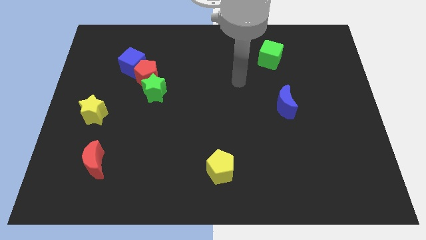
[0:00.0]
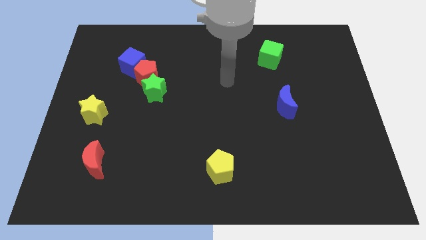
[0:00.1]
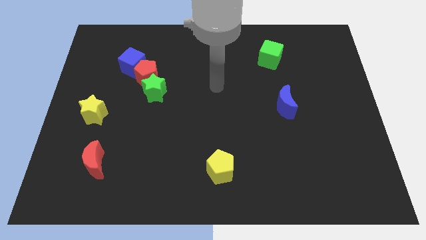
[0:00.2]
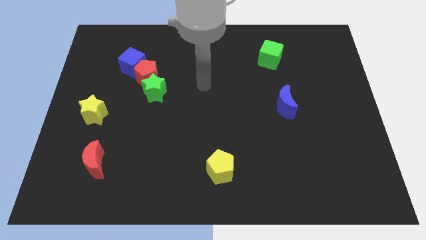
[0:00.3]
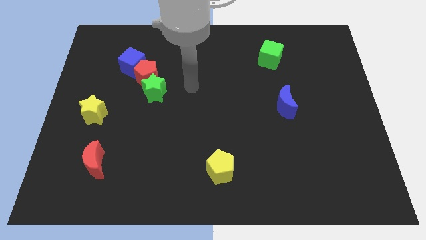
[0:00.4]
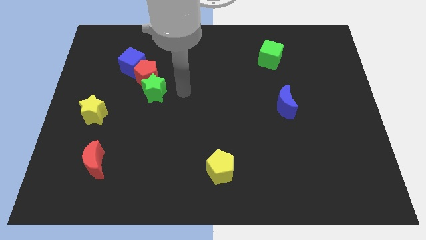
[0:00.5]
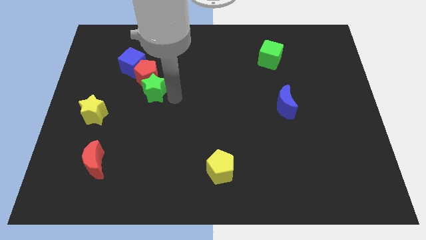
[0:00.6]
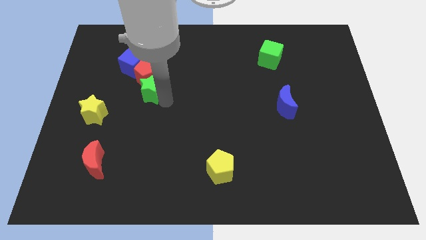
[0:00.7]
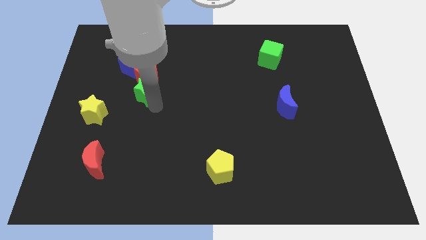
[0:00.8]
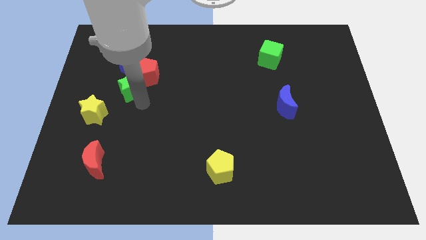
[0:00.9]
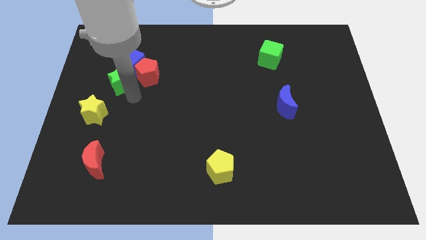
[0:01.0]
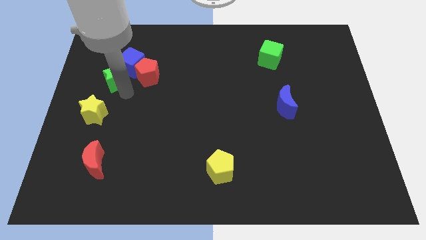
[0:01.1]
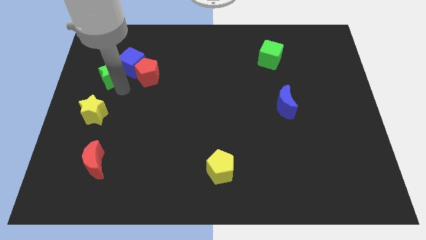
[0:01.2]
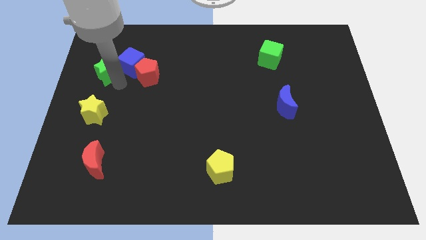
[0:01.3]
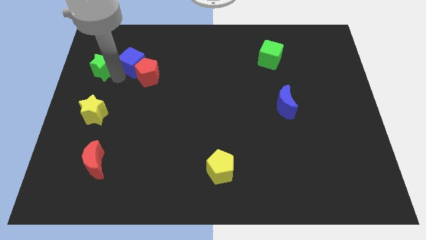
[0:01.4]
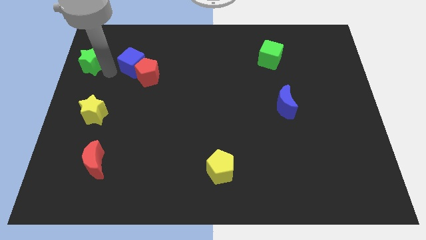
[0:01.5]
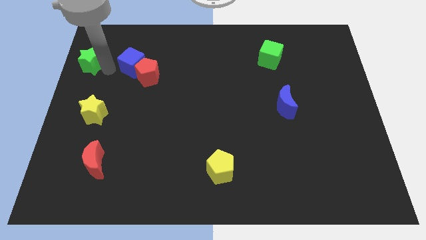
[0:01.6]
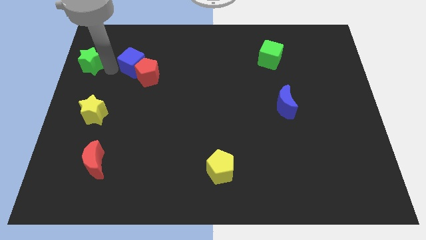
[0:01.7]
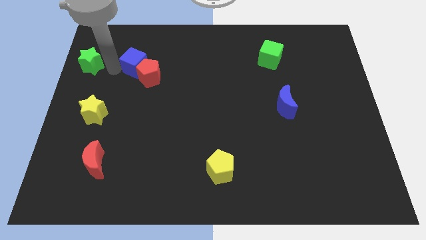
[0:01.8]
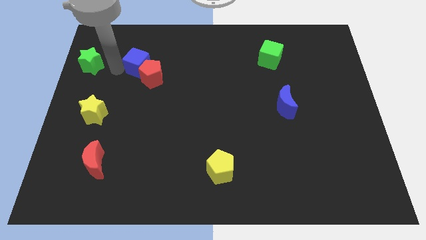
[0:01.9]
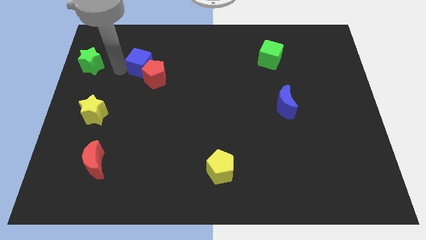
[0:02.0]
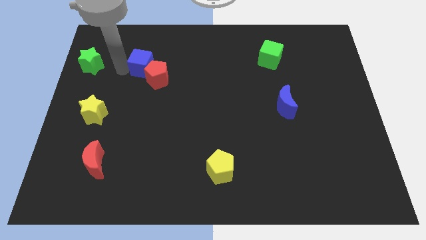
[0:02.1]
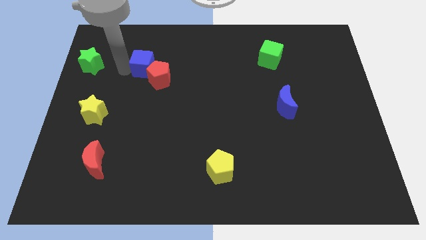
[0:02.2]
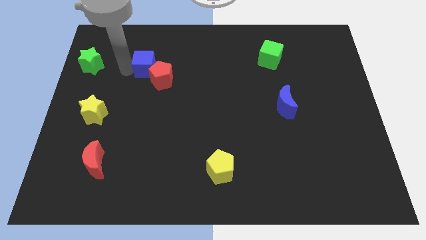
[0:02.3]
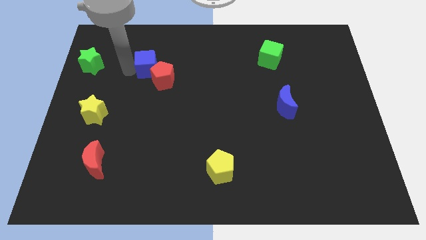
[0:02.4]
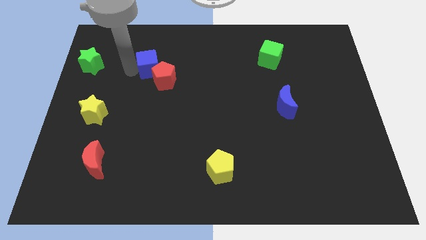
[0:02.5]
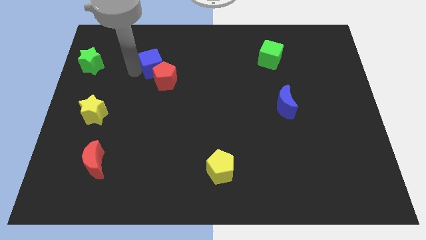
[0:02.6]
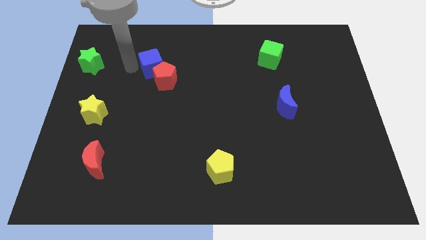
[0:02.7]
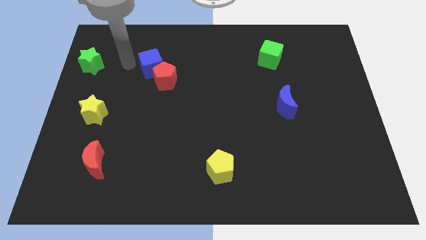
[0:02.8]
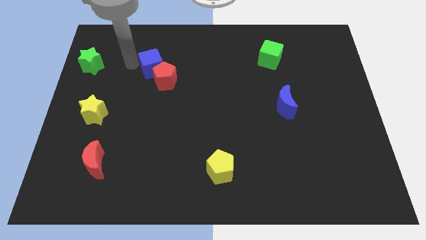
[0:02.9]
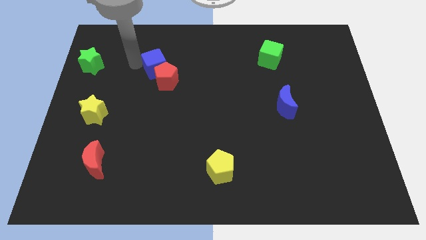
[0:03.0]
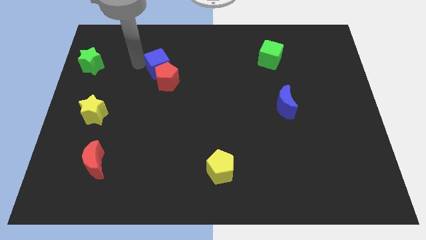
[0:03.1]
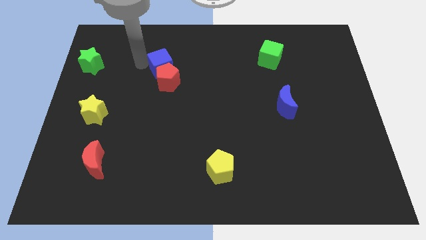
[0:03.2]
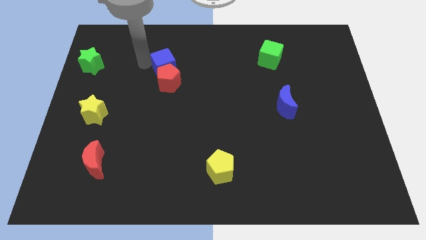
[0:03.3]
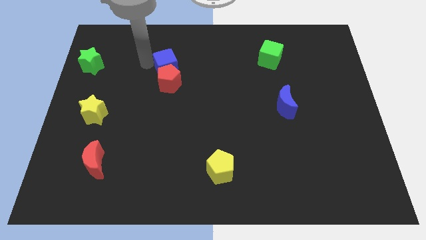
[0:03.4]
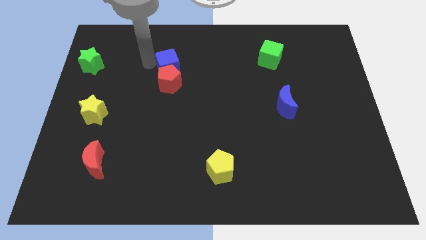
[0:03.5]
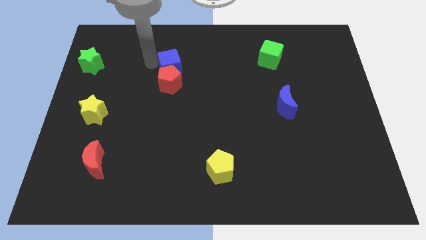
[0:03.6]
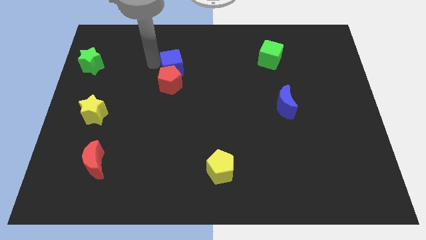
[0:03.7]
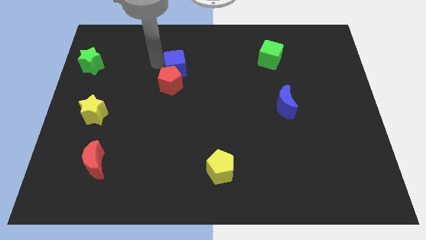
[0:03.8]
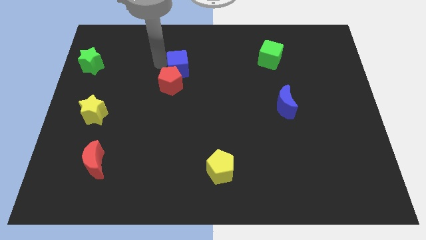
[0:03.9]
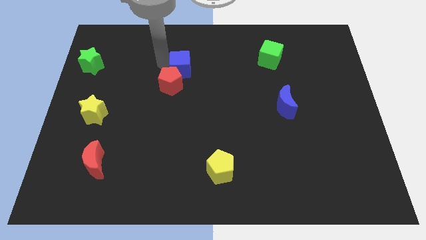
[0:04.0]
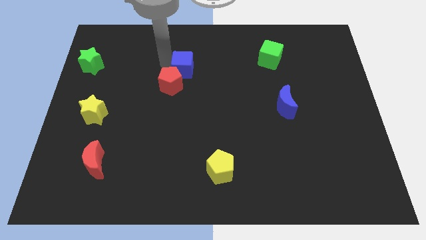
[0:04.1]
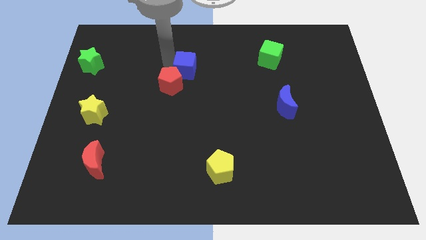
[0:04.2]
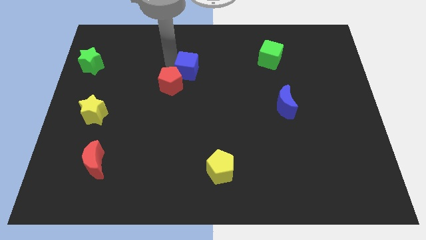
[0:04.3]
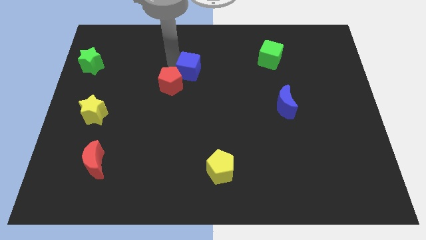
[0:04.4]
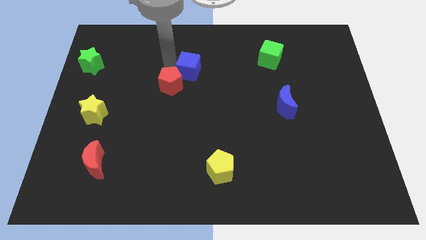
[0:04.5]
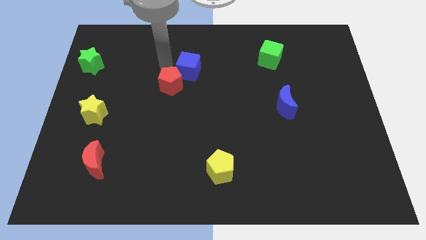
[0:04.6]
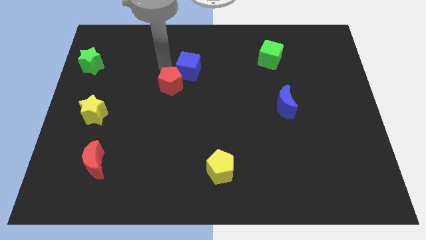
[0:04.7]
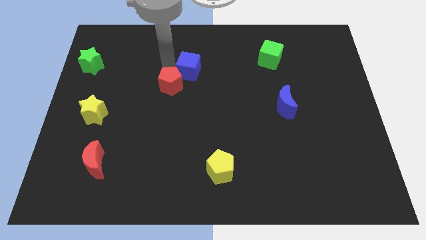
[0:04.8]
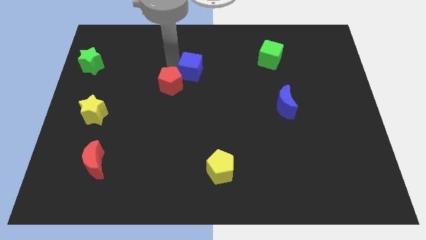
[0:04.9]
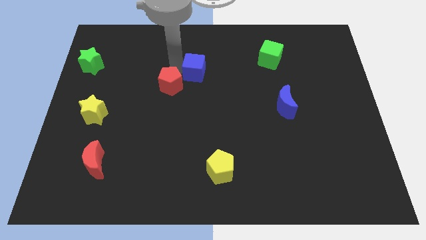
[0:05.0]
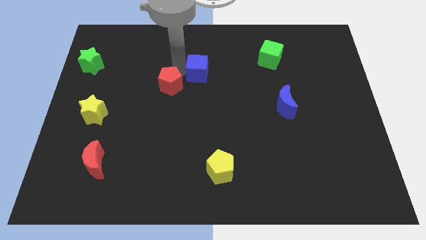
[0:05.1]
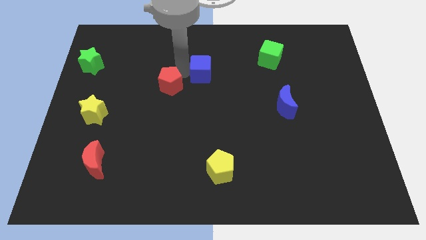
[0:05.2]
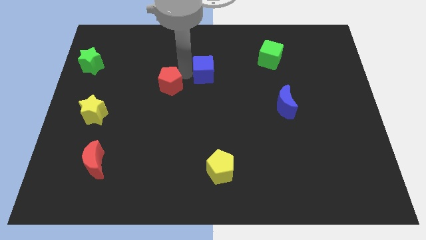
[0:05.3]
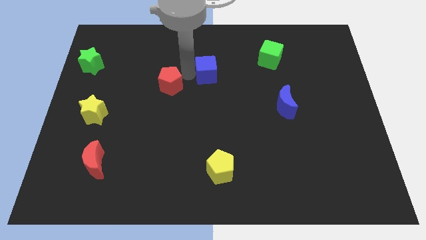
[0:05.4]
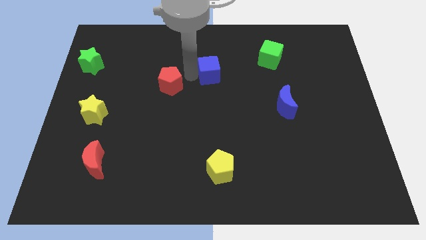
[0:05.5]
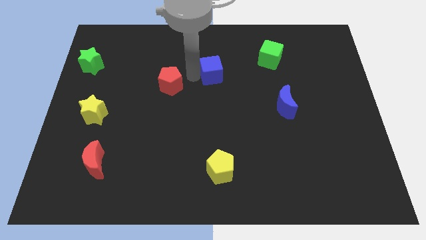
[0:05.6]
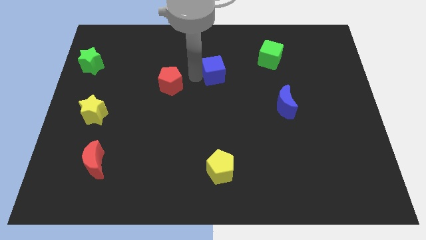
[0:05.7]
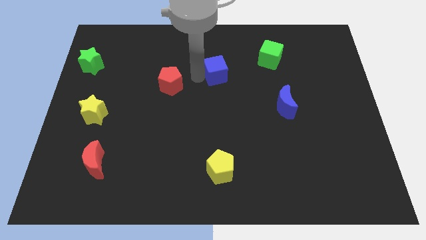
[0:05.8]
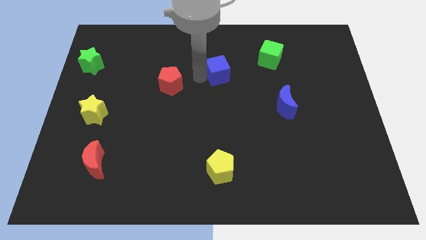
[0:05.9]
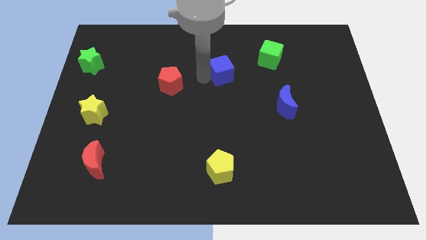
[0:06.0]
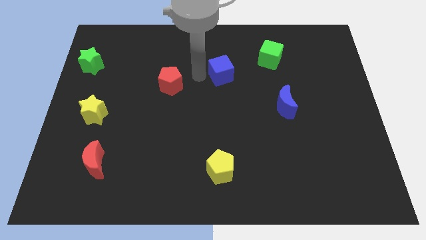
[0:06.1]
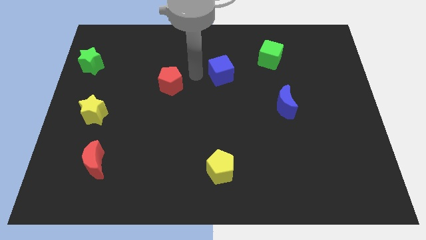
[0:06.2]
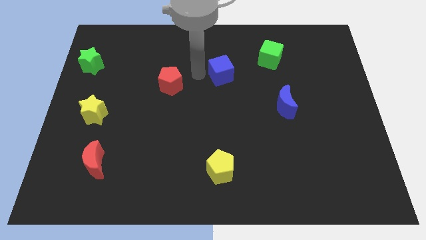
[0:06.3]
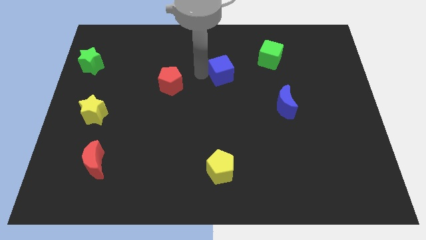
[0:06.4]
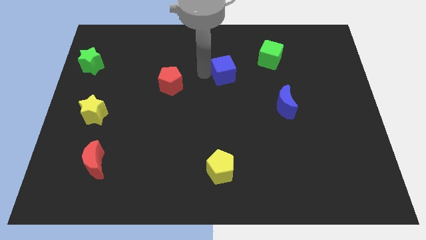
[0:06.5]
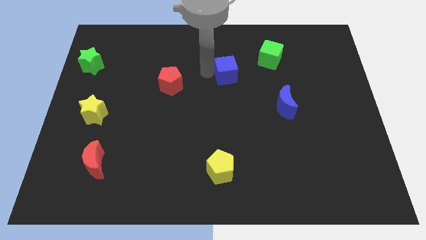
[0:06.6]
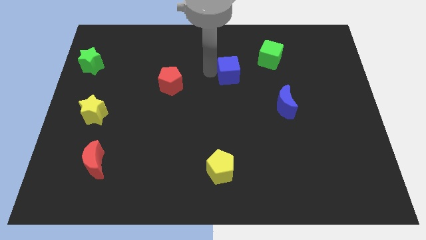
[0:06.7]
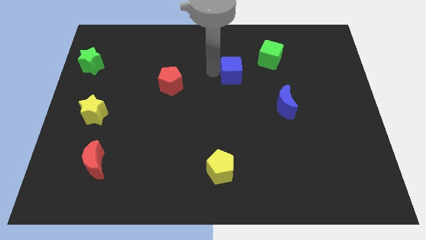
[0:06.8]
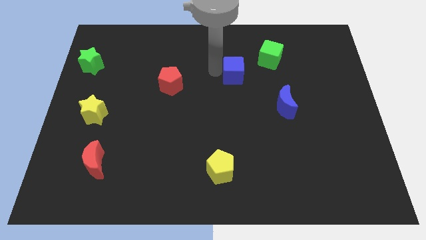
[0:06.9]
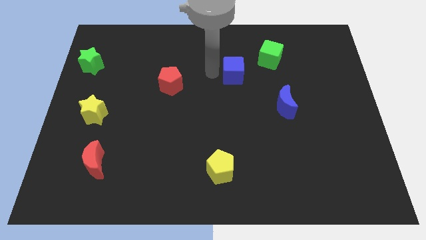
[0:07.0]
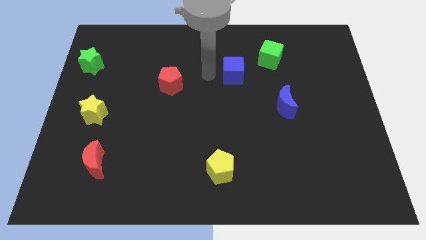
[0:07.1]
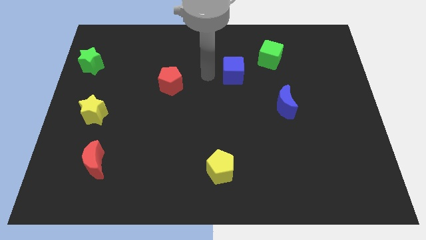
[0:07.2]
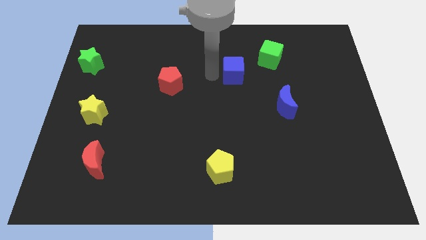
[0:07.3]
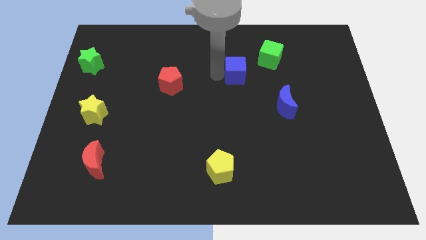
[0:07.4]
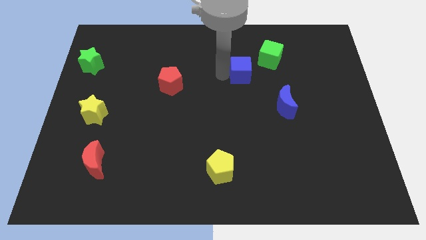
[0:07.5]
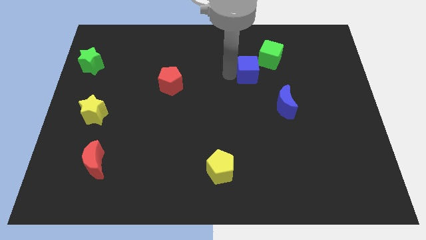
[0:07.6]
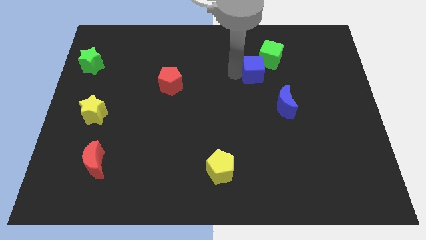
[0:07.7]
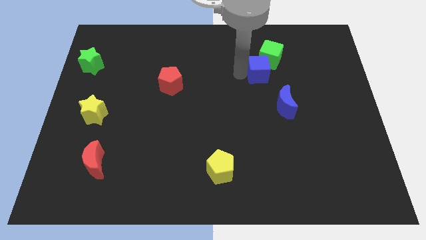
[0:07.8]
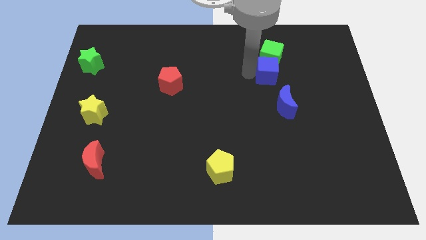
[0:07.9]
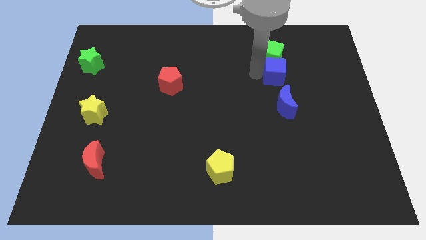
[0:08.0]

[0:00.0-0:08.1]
slide the blue cube to the bottom right of the green cube
